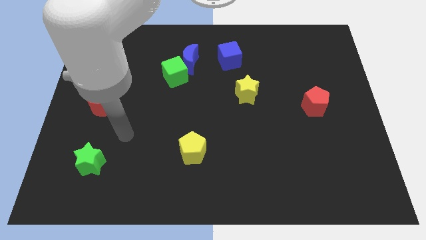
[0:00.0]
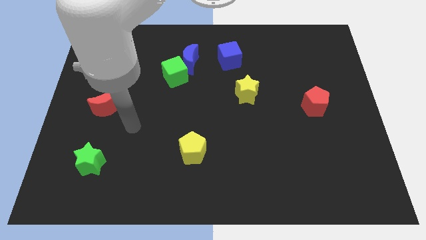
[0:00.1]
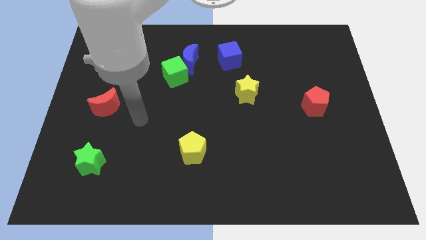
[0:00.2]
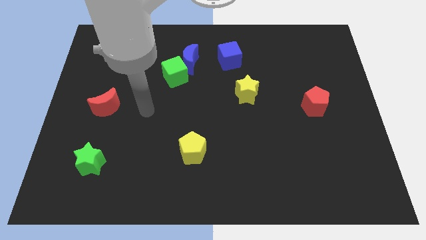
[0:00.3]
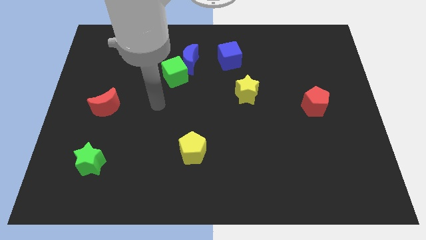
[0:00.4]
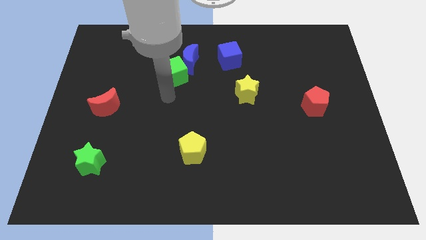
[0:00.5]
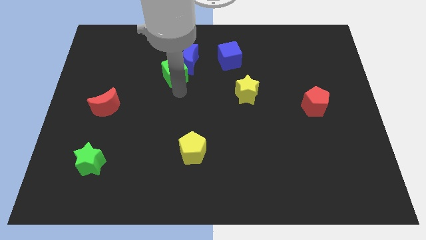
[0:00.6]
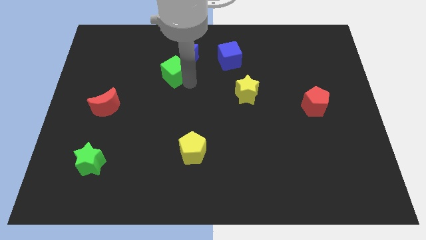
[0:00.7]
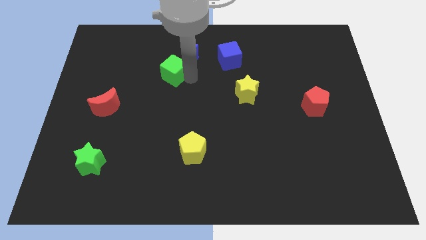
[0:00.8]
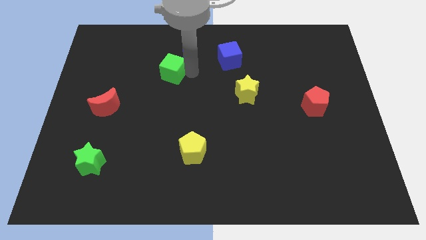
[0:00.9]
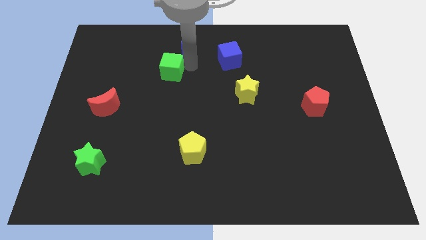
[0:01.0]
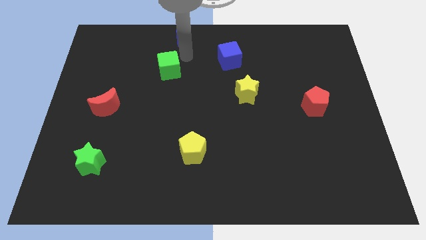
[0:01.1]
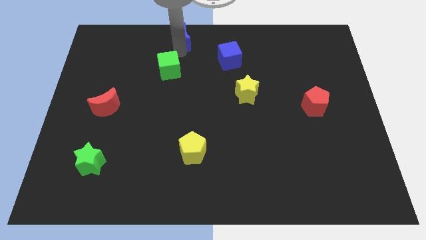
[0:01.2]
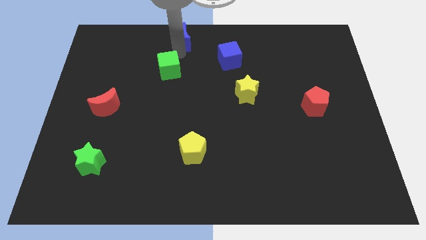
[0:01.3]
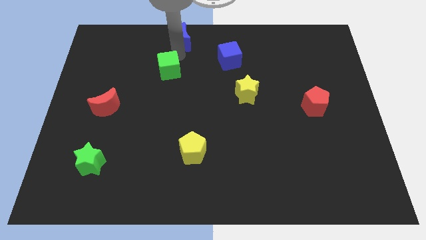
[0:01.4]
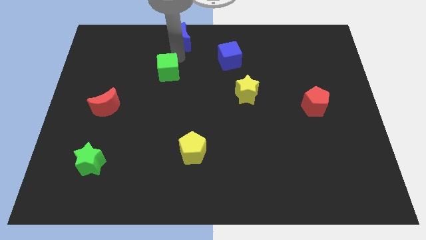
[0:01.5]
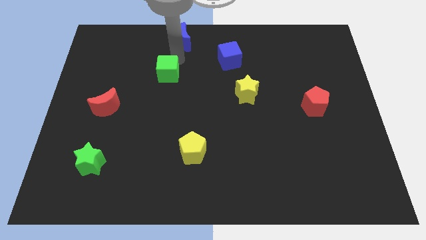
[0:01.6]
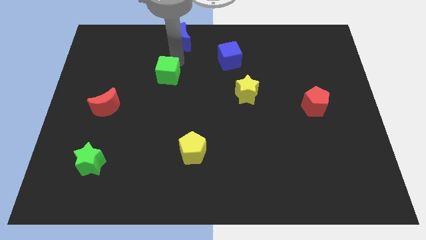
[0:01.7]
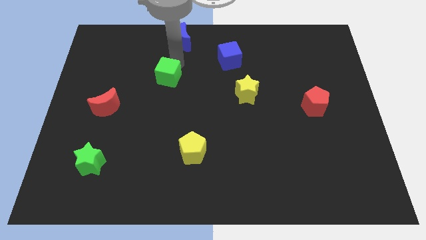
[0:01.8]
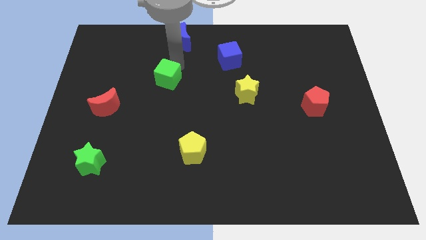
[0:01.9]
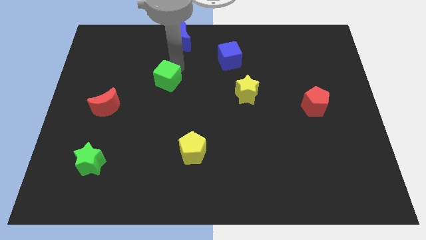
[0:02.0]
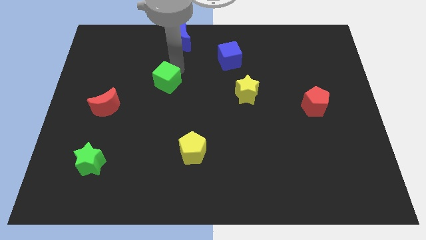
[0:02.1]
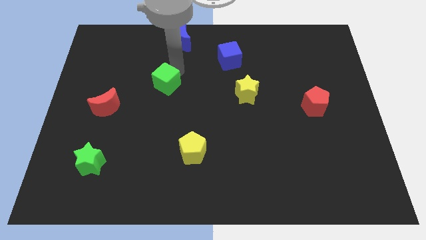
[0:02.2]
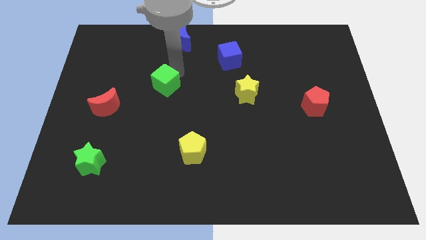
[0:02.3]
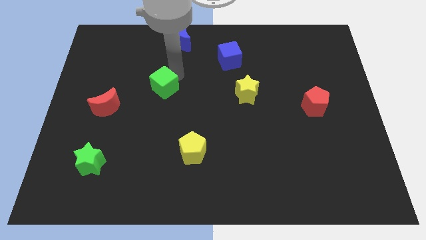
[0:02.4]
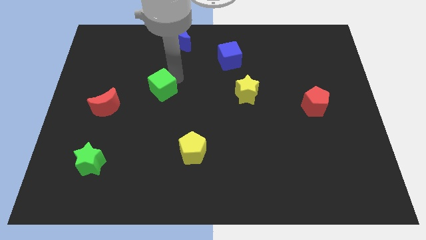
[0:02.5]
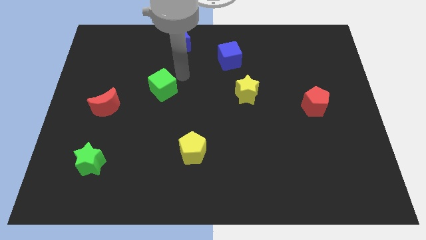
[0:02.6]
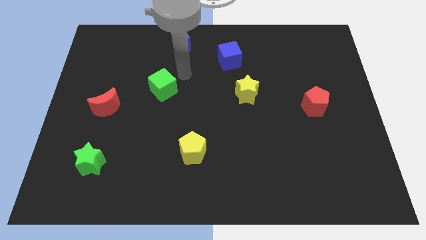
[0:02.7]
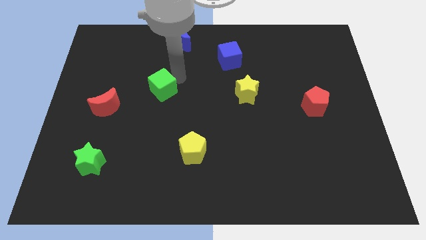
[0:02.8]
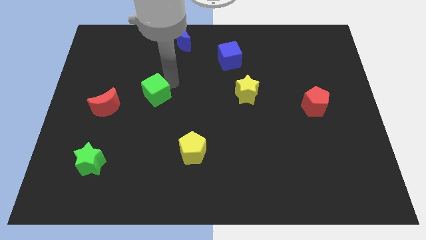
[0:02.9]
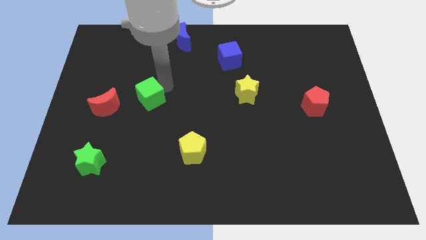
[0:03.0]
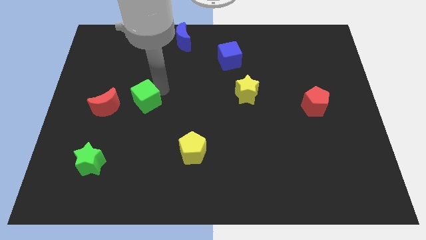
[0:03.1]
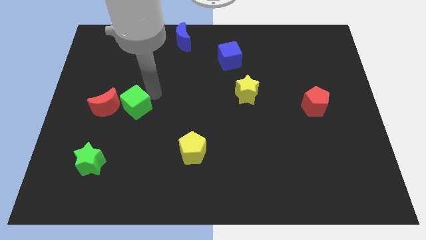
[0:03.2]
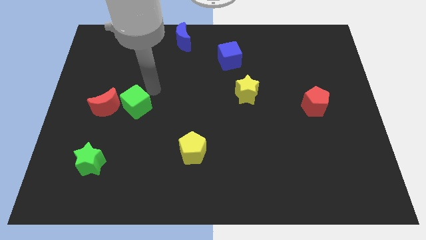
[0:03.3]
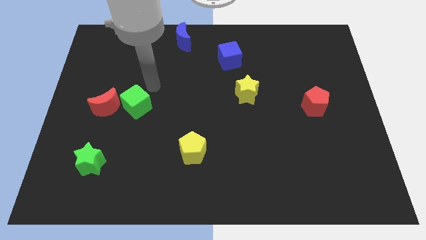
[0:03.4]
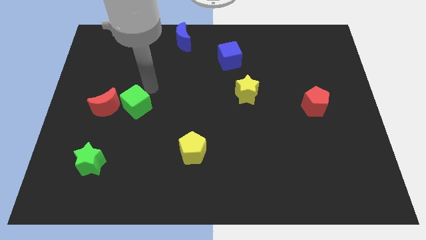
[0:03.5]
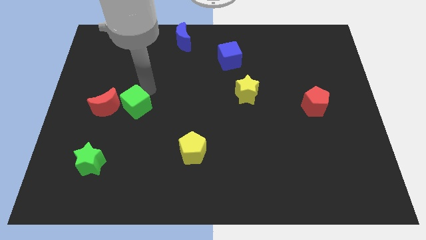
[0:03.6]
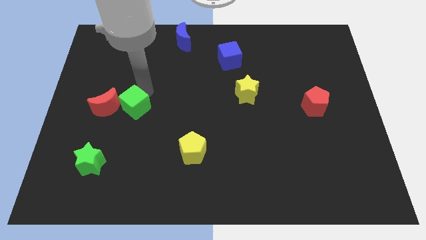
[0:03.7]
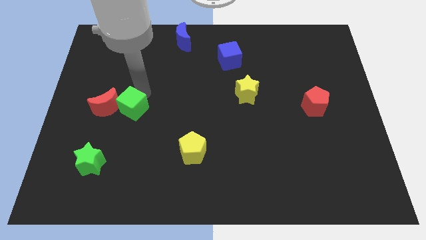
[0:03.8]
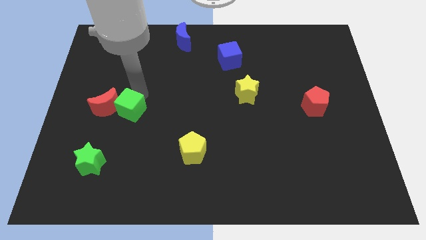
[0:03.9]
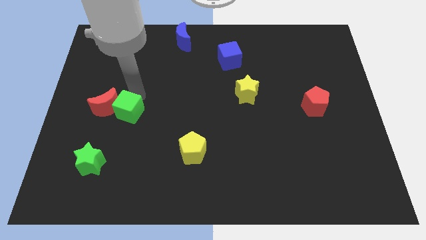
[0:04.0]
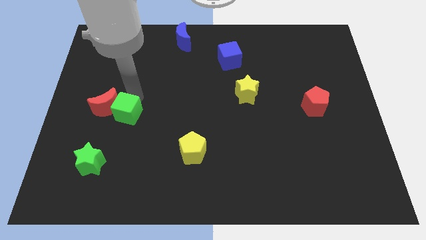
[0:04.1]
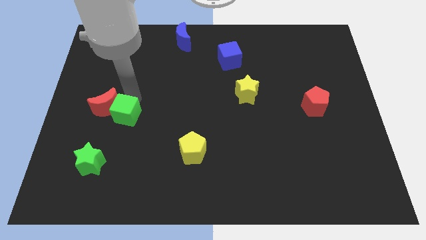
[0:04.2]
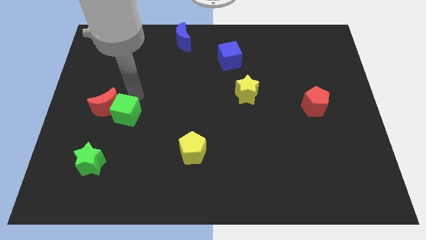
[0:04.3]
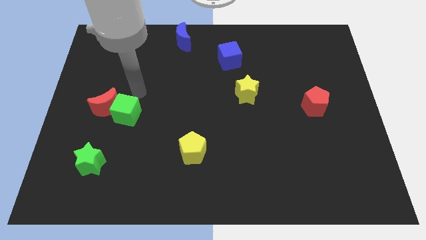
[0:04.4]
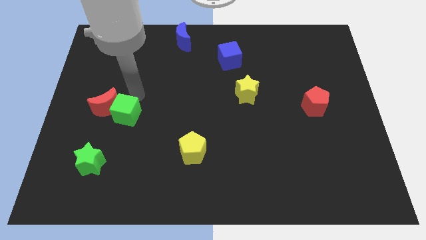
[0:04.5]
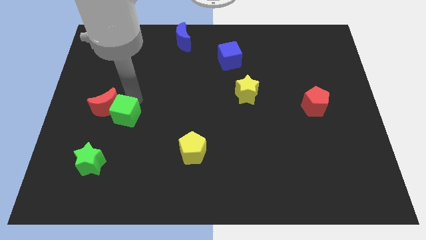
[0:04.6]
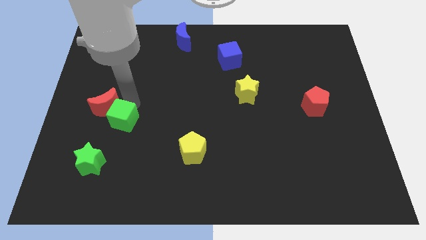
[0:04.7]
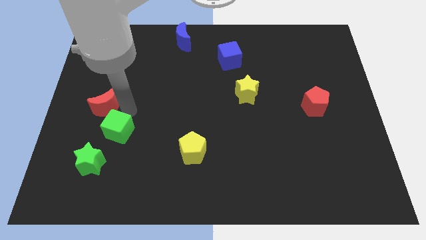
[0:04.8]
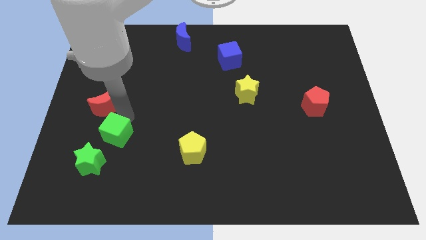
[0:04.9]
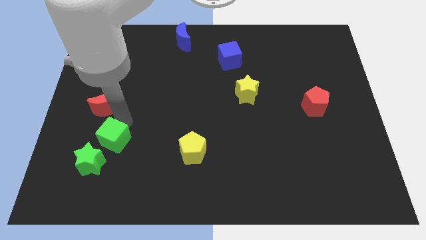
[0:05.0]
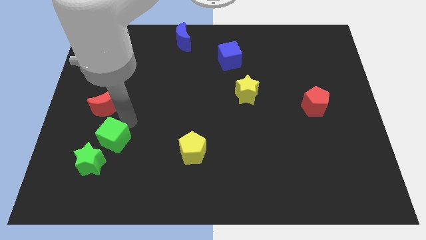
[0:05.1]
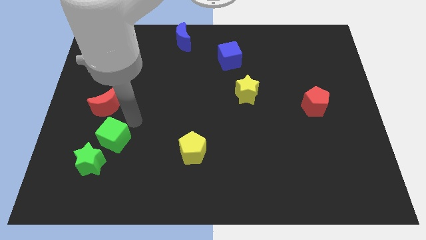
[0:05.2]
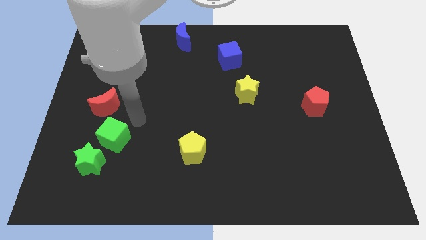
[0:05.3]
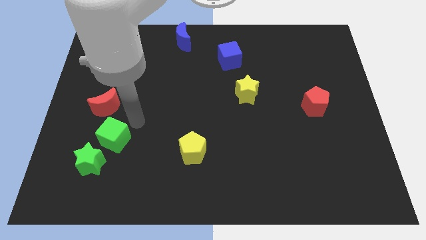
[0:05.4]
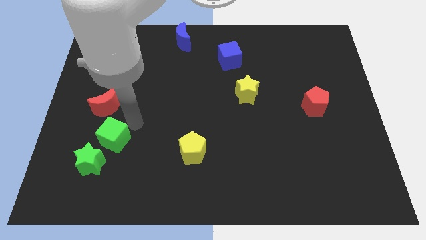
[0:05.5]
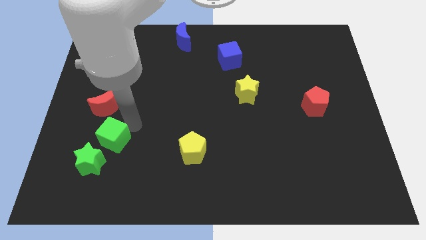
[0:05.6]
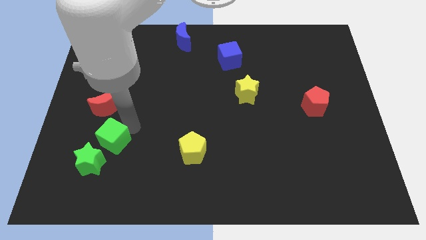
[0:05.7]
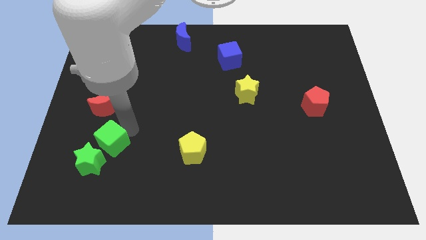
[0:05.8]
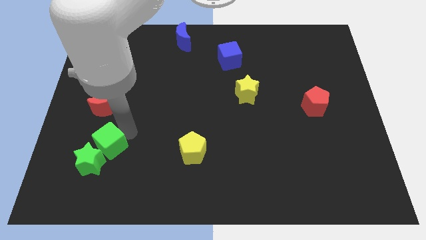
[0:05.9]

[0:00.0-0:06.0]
slide the green cube to the green star
